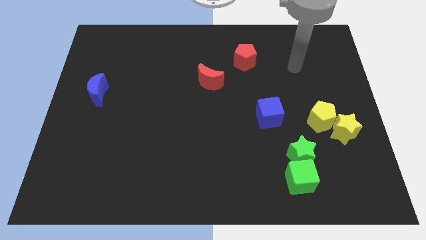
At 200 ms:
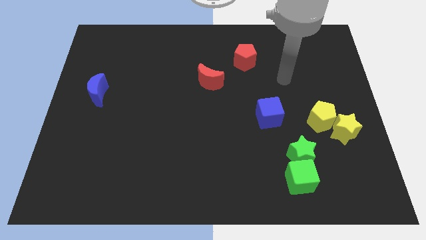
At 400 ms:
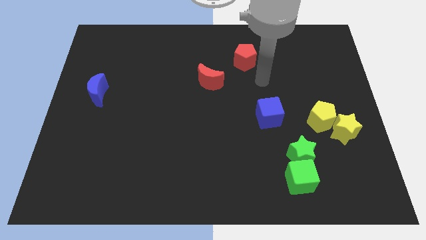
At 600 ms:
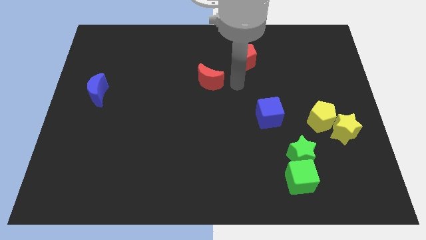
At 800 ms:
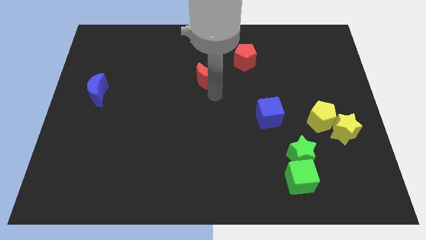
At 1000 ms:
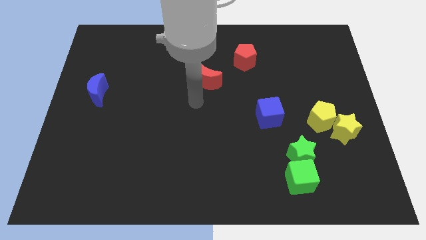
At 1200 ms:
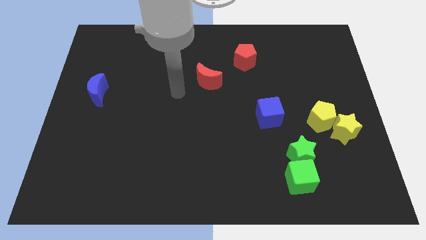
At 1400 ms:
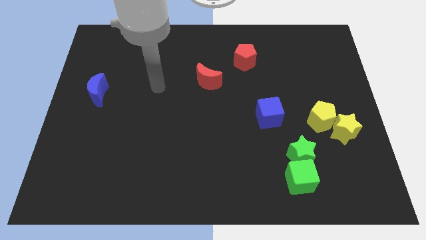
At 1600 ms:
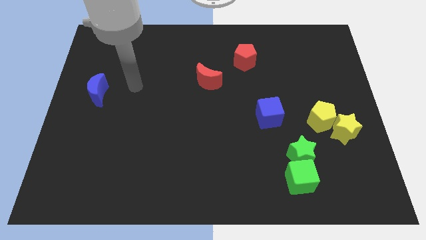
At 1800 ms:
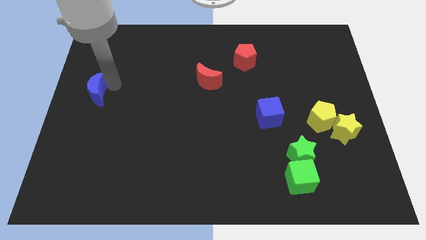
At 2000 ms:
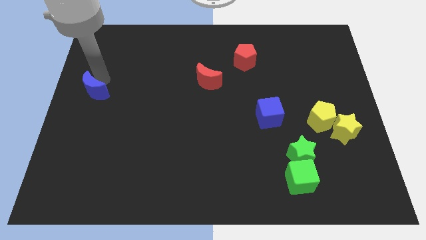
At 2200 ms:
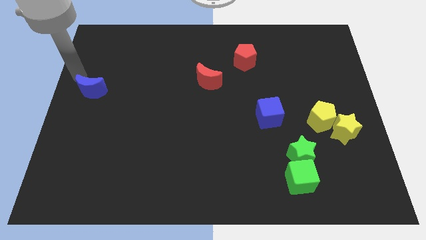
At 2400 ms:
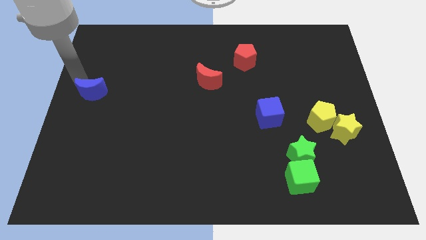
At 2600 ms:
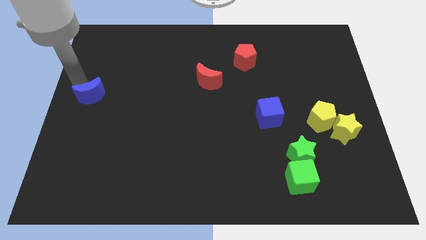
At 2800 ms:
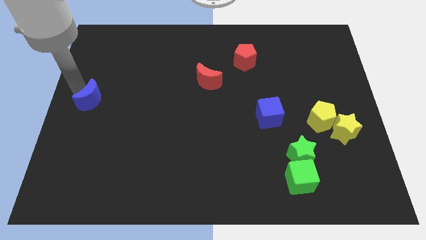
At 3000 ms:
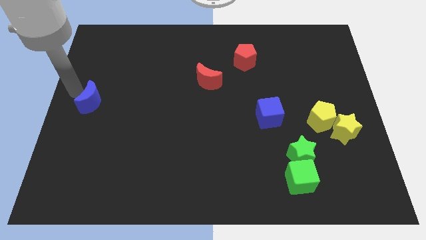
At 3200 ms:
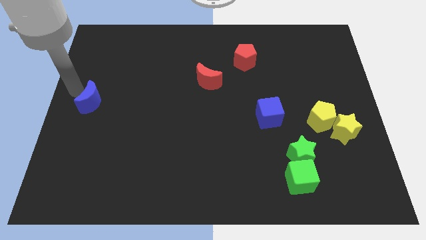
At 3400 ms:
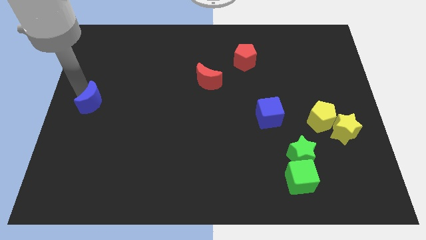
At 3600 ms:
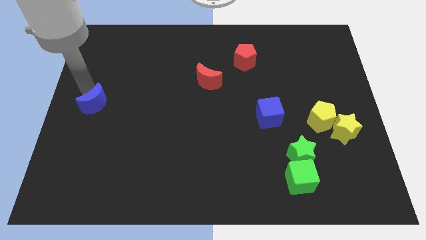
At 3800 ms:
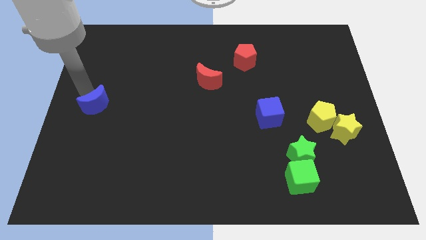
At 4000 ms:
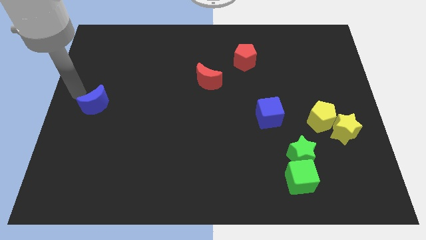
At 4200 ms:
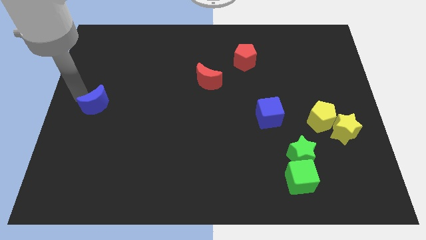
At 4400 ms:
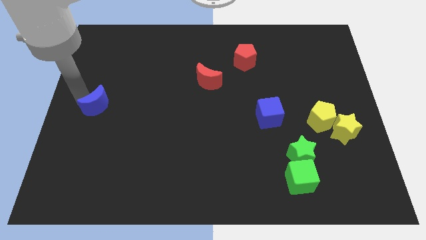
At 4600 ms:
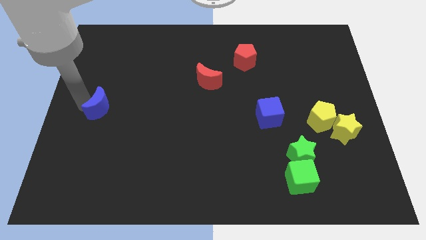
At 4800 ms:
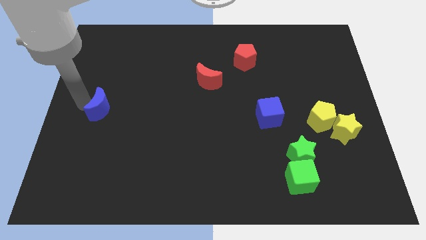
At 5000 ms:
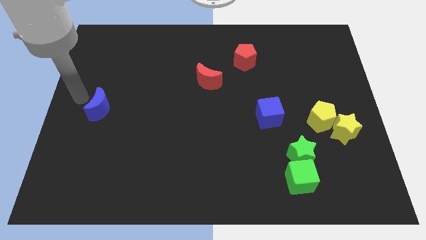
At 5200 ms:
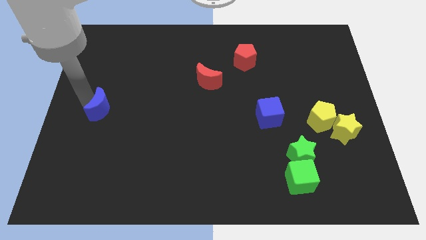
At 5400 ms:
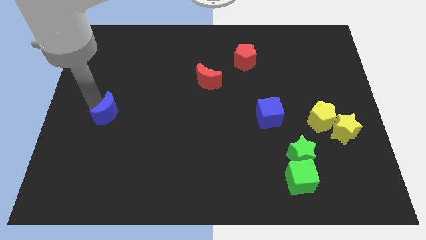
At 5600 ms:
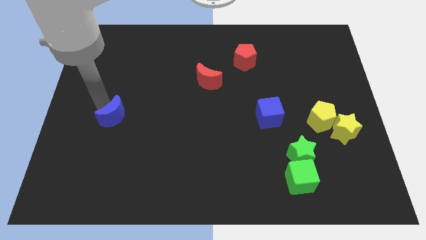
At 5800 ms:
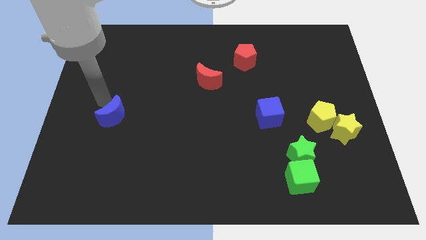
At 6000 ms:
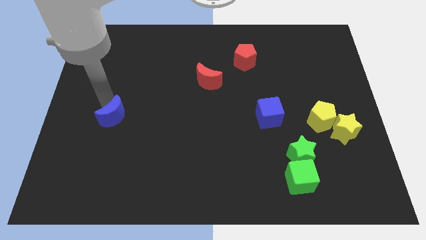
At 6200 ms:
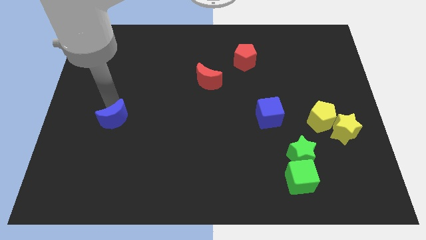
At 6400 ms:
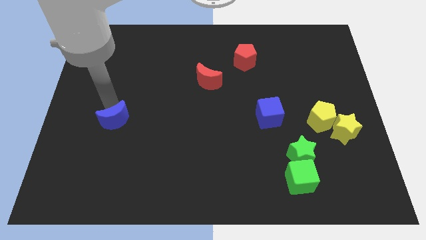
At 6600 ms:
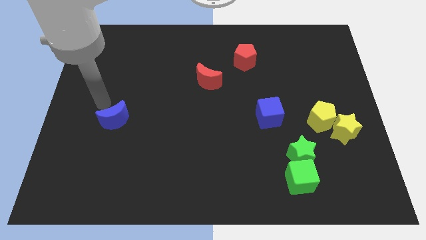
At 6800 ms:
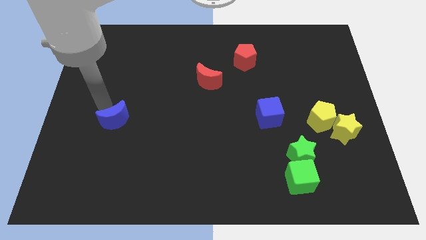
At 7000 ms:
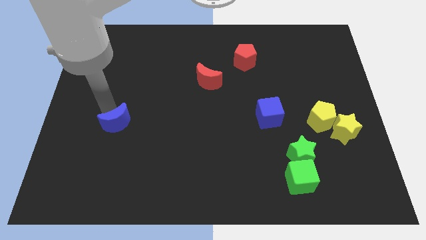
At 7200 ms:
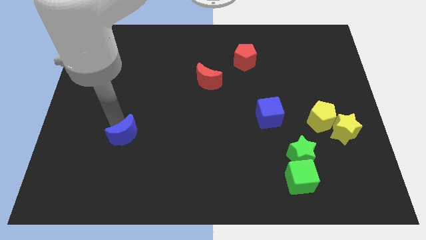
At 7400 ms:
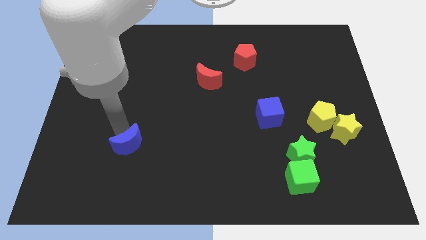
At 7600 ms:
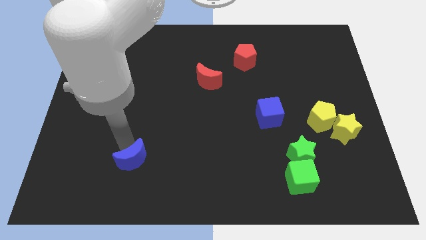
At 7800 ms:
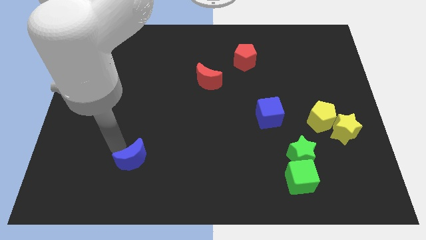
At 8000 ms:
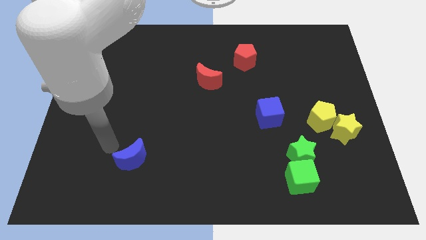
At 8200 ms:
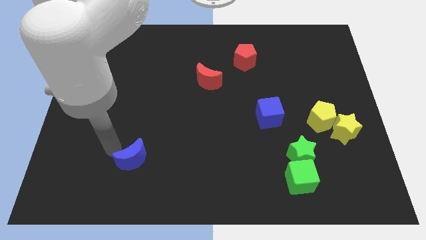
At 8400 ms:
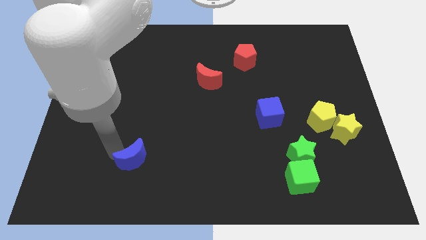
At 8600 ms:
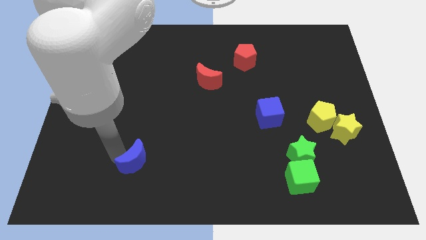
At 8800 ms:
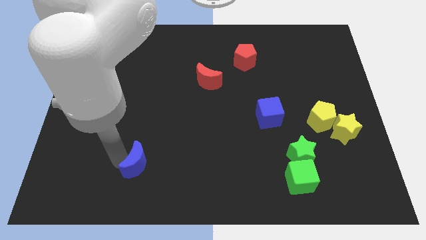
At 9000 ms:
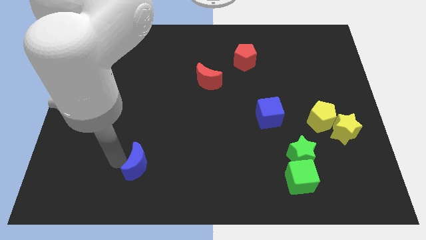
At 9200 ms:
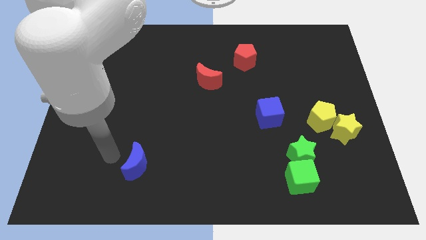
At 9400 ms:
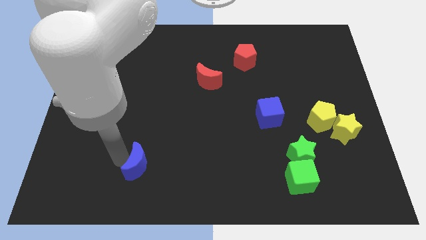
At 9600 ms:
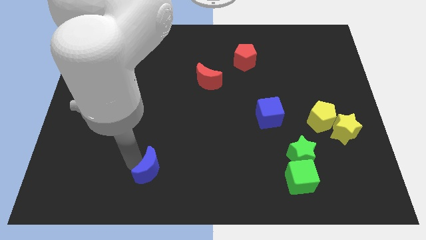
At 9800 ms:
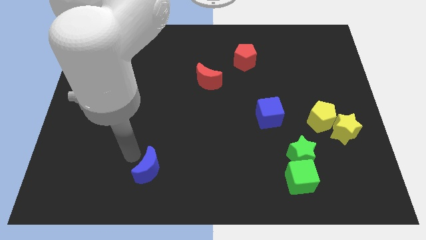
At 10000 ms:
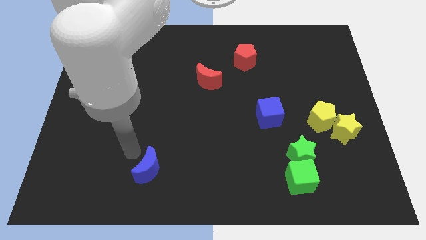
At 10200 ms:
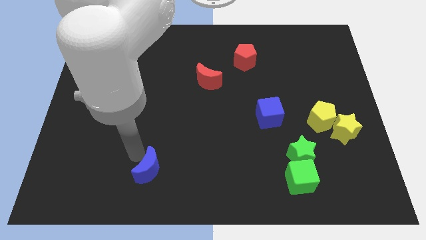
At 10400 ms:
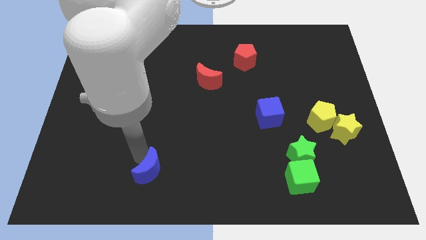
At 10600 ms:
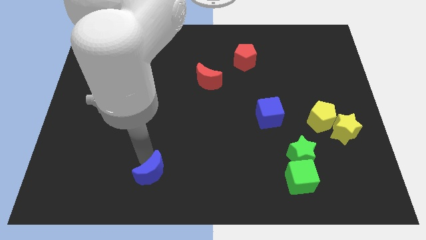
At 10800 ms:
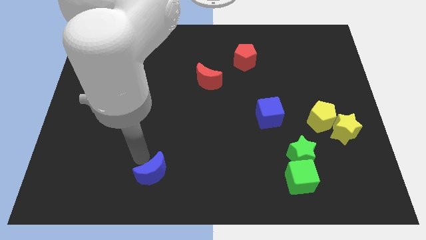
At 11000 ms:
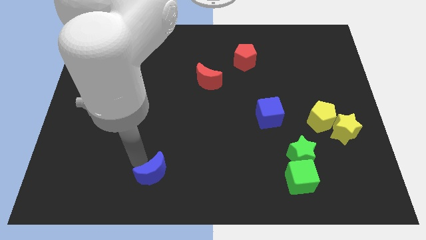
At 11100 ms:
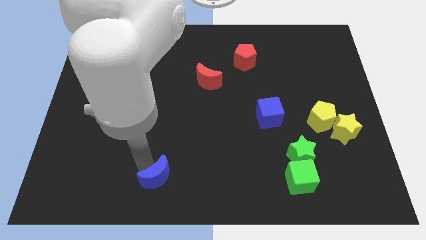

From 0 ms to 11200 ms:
put the blue moon to the bottom
